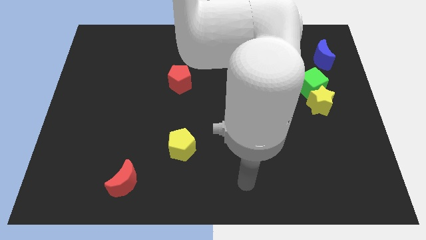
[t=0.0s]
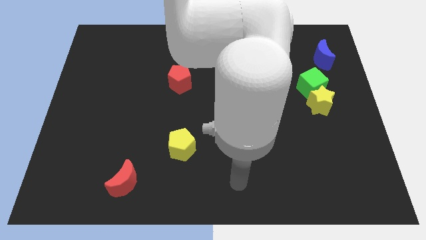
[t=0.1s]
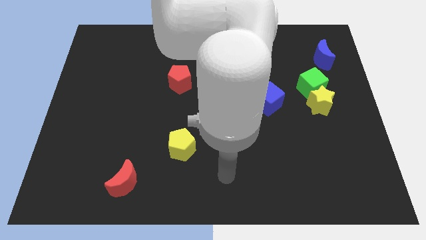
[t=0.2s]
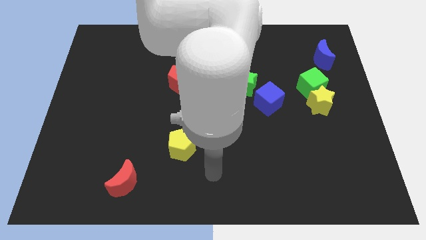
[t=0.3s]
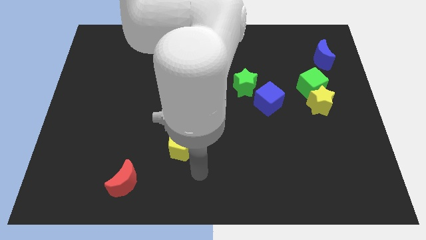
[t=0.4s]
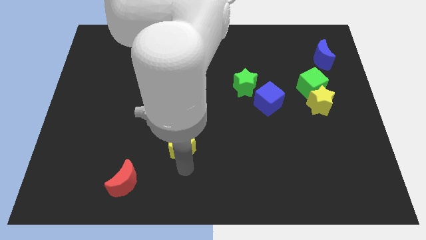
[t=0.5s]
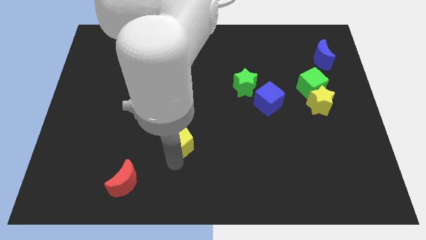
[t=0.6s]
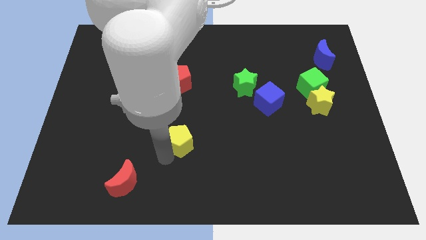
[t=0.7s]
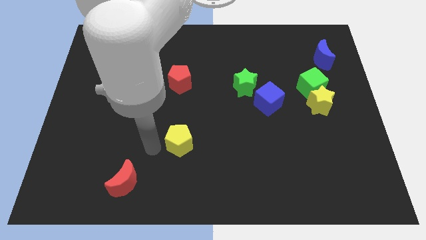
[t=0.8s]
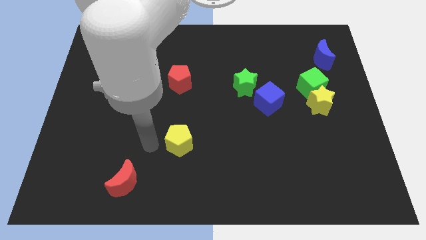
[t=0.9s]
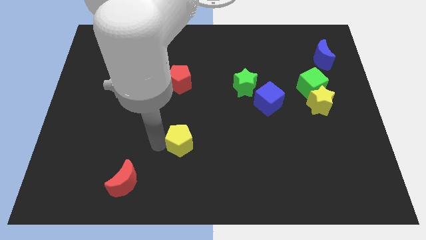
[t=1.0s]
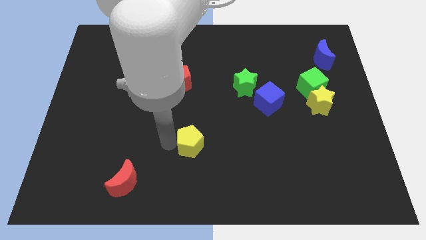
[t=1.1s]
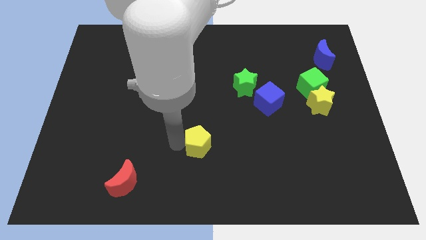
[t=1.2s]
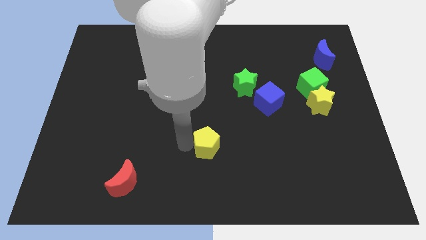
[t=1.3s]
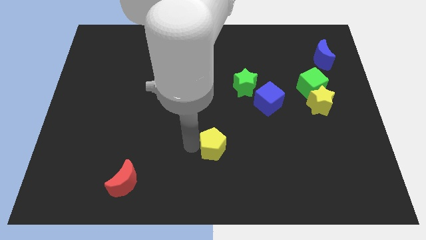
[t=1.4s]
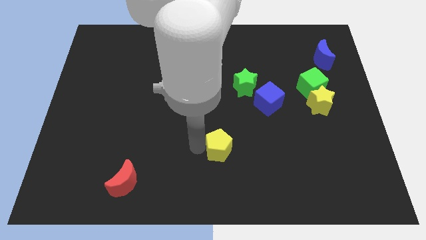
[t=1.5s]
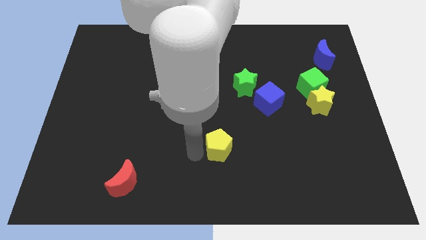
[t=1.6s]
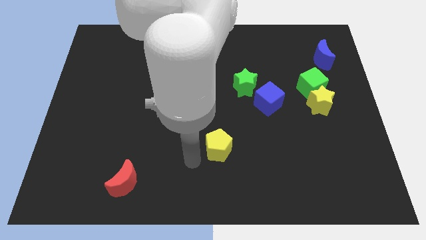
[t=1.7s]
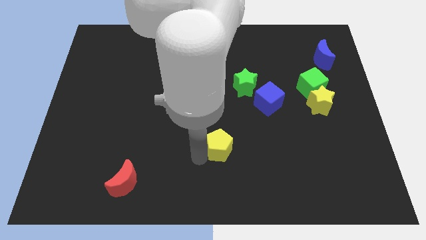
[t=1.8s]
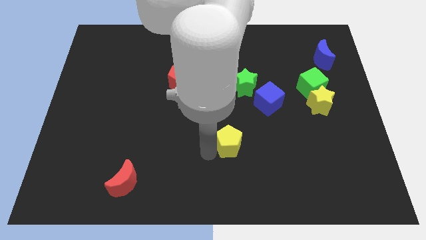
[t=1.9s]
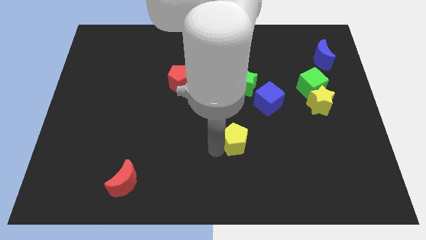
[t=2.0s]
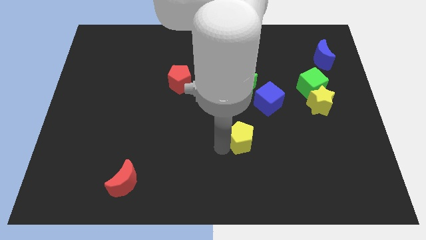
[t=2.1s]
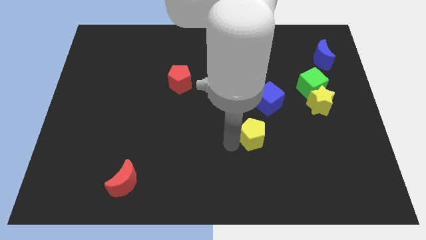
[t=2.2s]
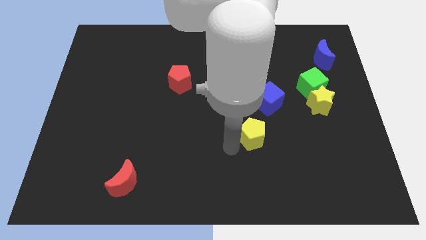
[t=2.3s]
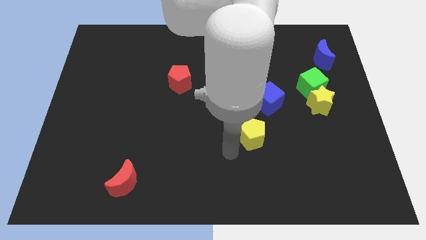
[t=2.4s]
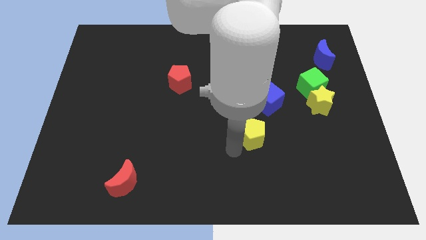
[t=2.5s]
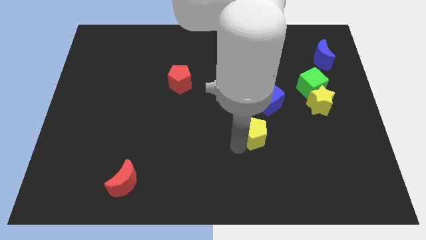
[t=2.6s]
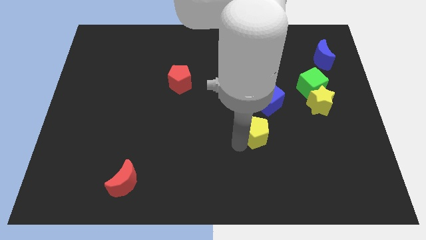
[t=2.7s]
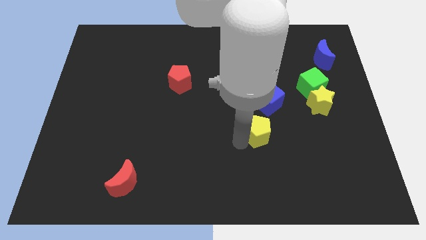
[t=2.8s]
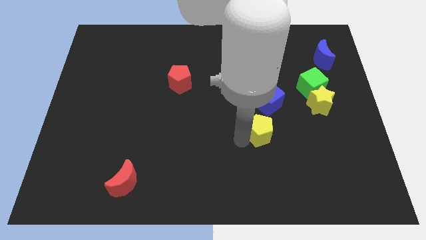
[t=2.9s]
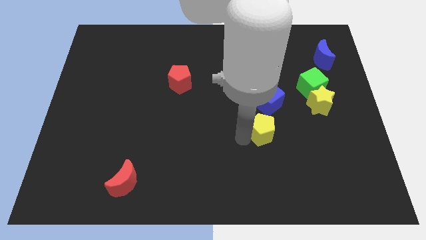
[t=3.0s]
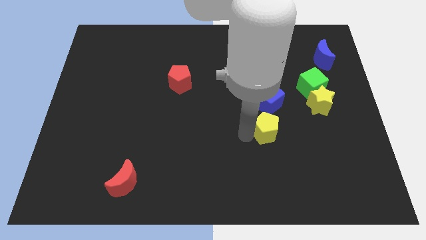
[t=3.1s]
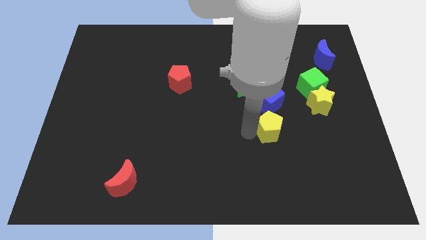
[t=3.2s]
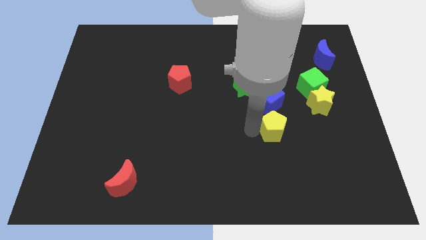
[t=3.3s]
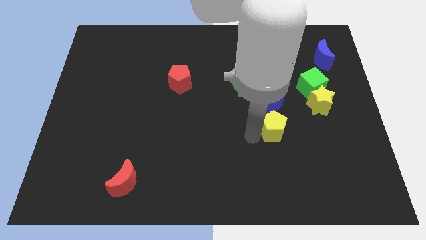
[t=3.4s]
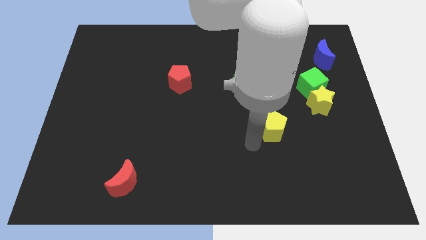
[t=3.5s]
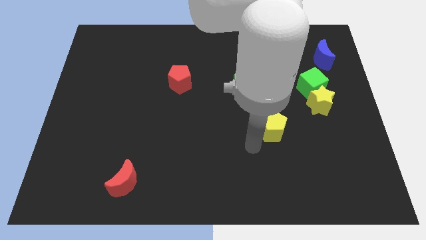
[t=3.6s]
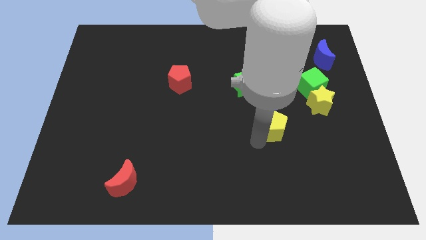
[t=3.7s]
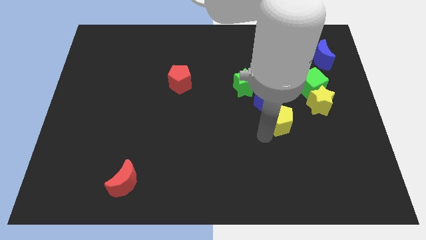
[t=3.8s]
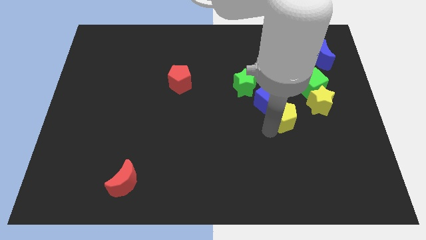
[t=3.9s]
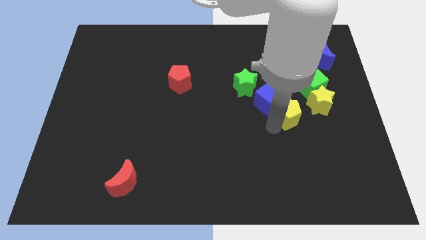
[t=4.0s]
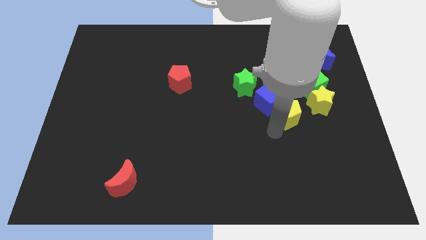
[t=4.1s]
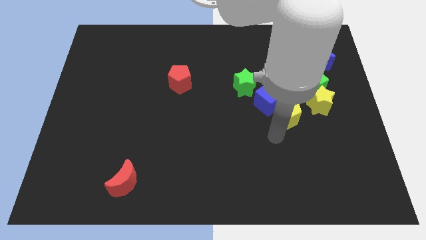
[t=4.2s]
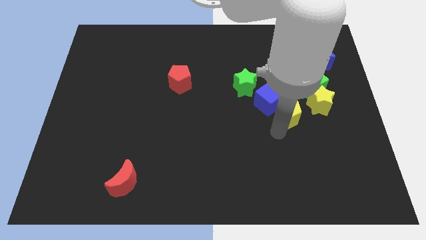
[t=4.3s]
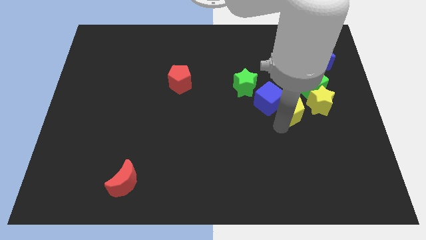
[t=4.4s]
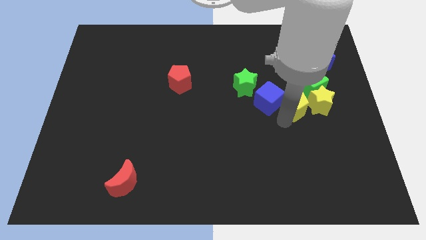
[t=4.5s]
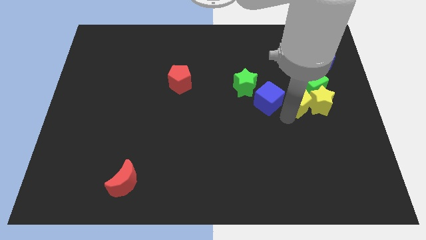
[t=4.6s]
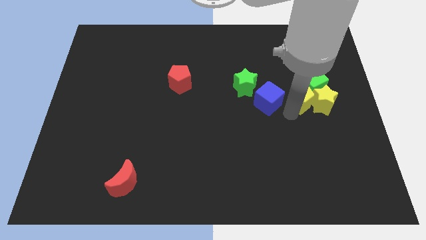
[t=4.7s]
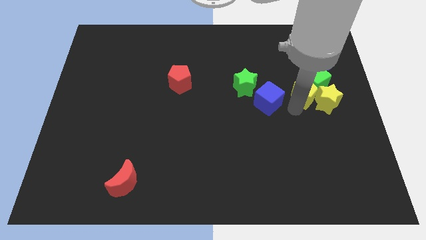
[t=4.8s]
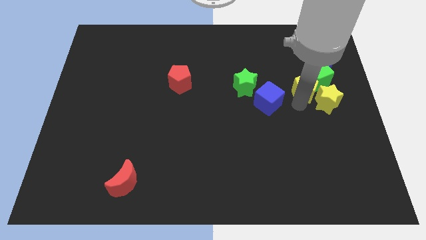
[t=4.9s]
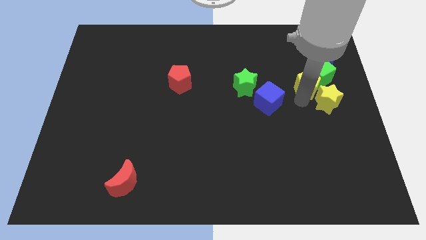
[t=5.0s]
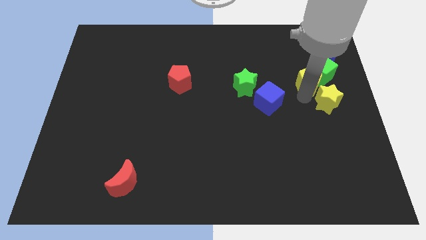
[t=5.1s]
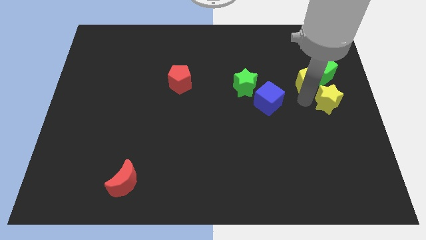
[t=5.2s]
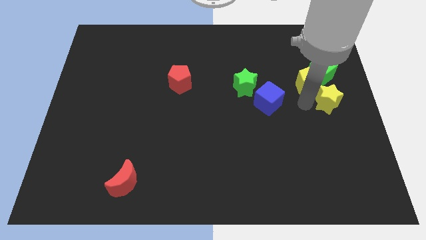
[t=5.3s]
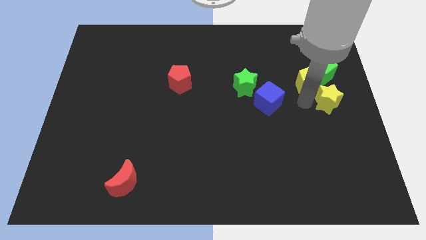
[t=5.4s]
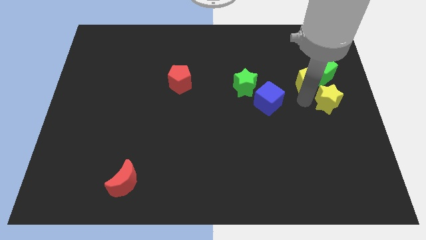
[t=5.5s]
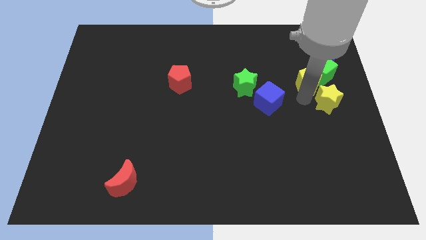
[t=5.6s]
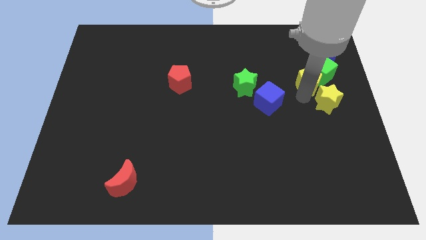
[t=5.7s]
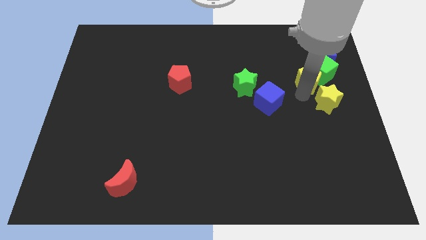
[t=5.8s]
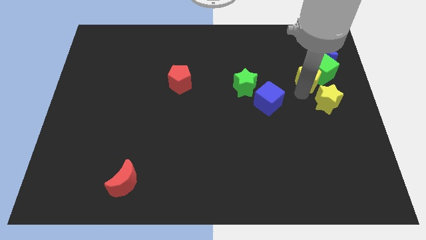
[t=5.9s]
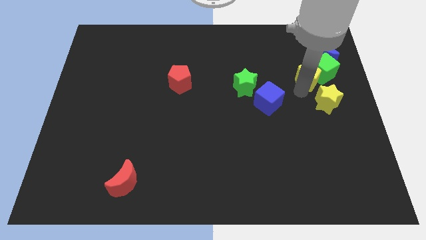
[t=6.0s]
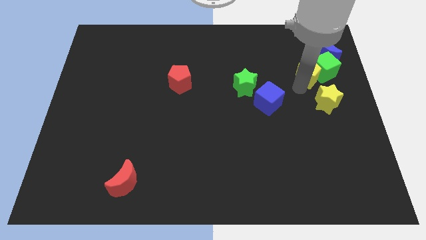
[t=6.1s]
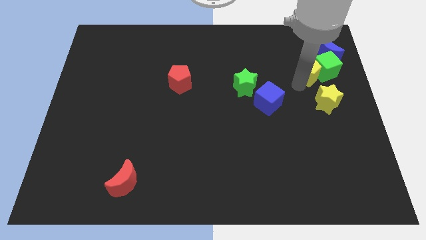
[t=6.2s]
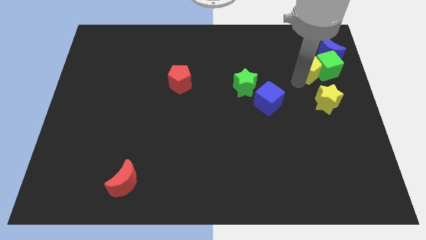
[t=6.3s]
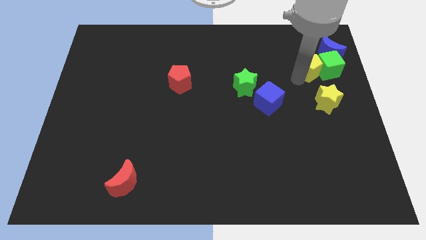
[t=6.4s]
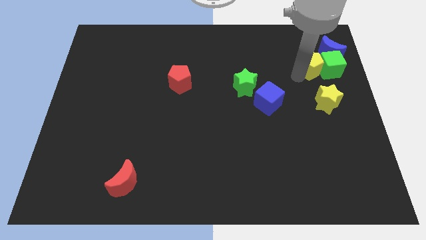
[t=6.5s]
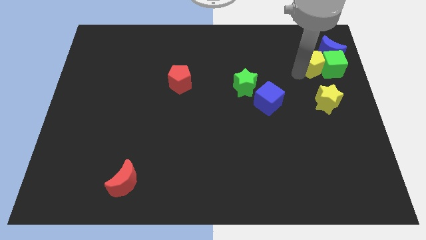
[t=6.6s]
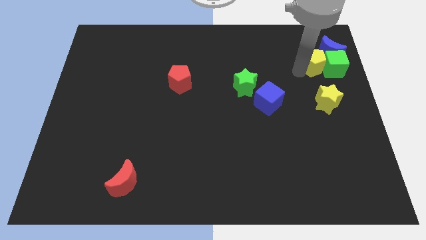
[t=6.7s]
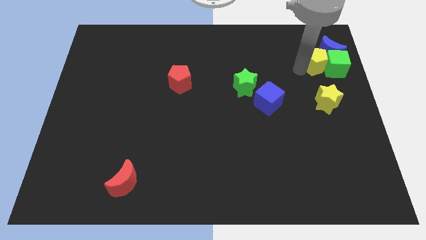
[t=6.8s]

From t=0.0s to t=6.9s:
slide the yellow pentagon close to the blue moon
